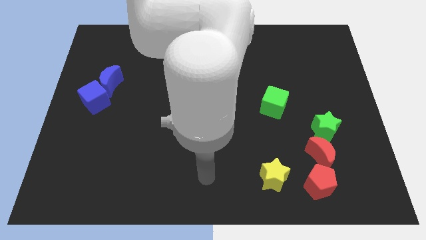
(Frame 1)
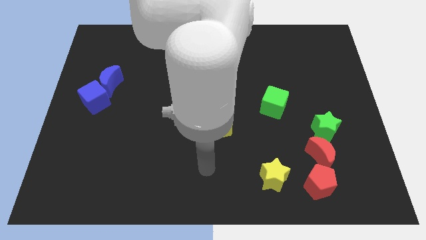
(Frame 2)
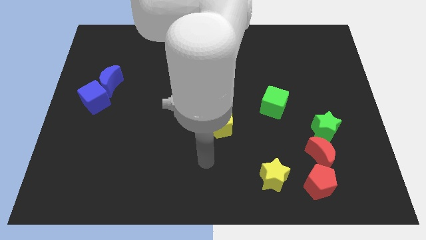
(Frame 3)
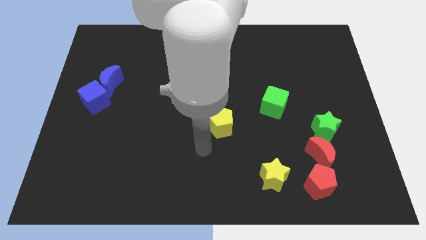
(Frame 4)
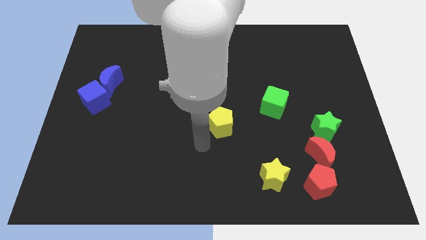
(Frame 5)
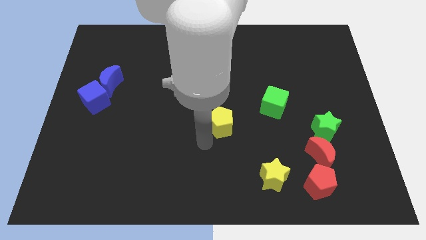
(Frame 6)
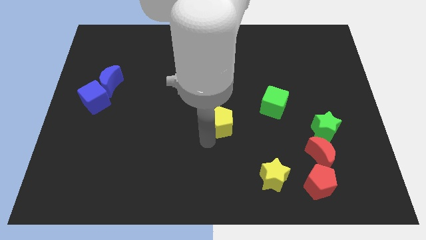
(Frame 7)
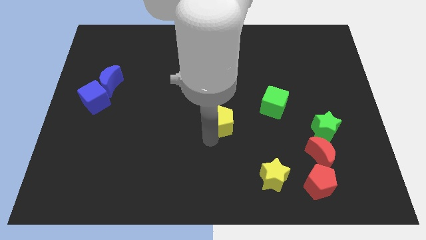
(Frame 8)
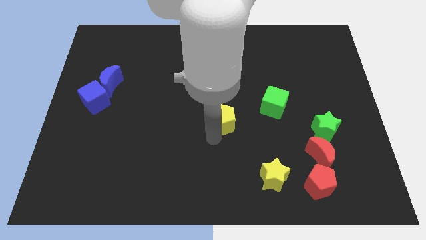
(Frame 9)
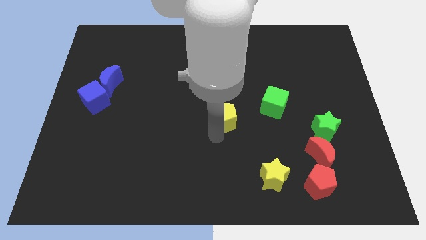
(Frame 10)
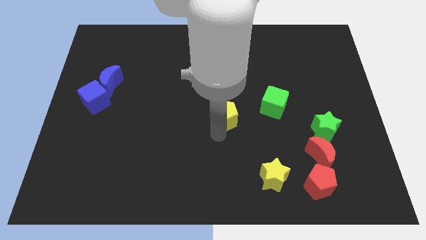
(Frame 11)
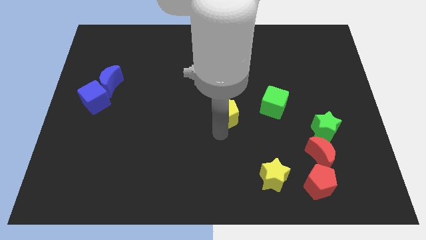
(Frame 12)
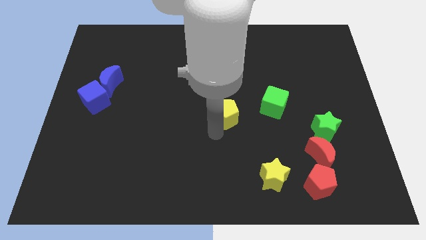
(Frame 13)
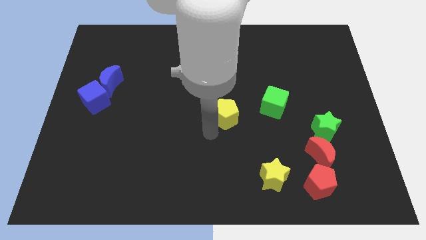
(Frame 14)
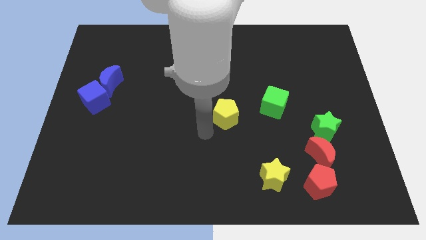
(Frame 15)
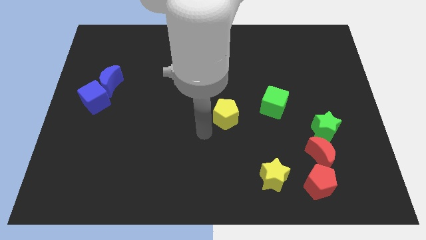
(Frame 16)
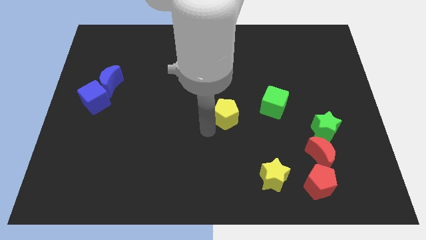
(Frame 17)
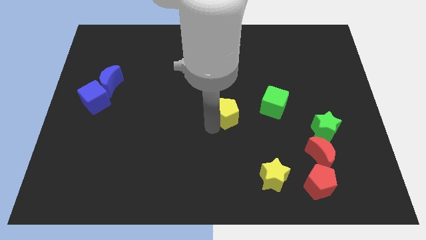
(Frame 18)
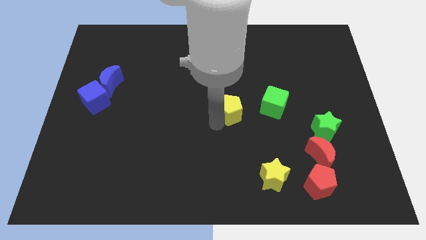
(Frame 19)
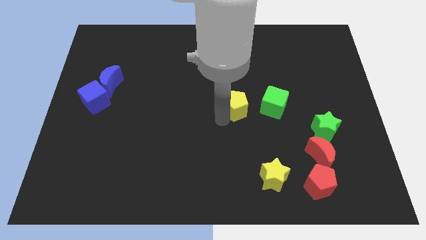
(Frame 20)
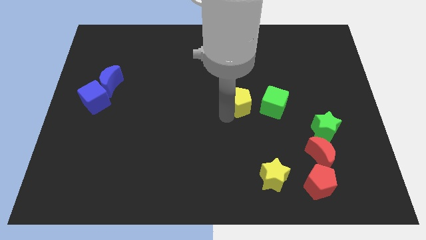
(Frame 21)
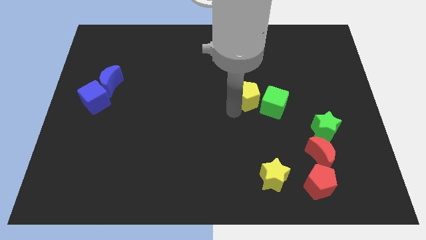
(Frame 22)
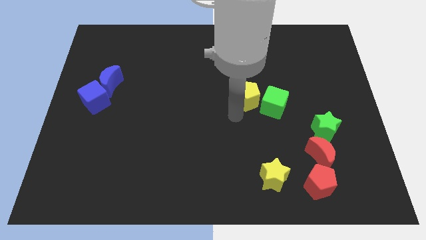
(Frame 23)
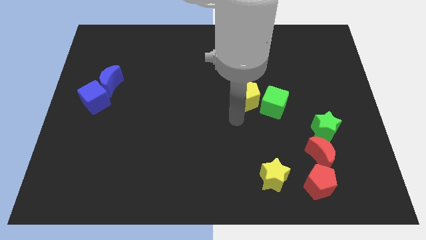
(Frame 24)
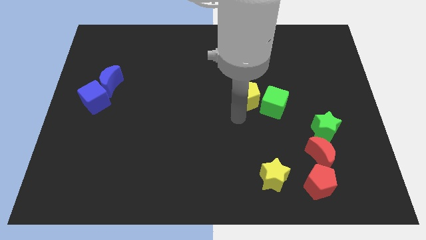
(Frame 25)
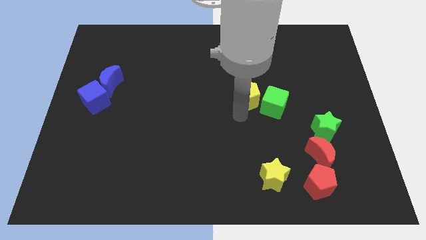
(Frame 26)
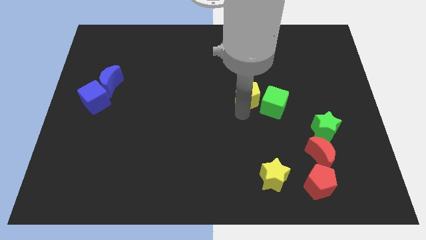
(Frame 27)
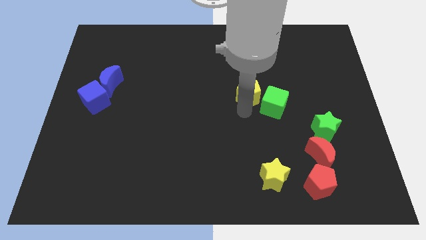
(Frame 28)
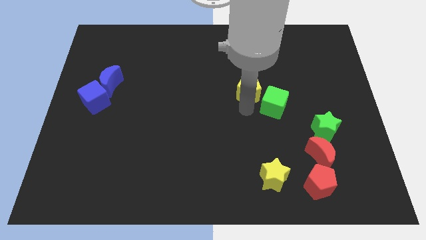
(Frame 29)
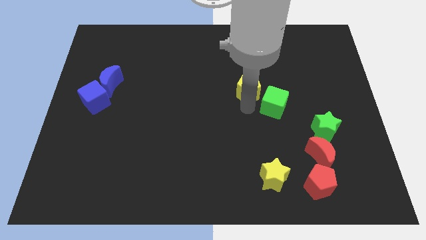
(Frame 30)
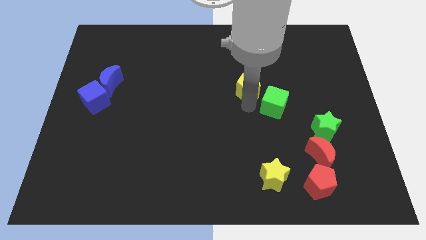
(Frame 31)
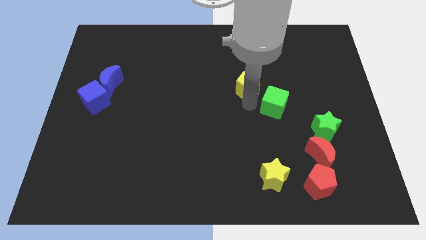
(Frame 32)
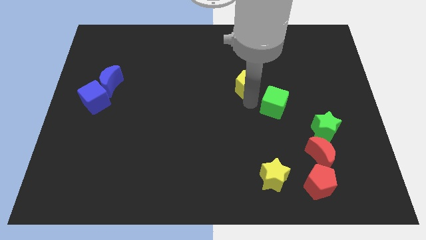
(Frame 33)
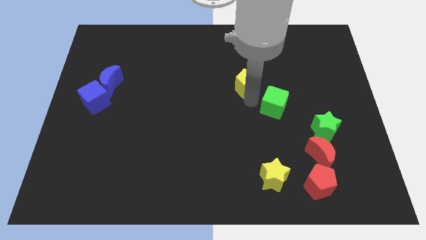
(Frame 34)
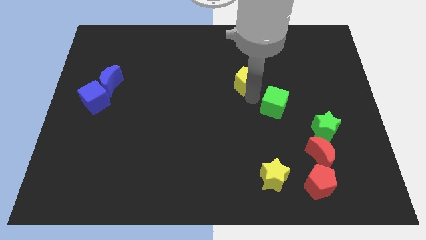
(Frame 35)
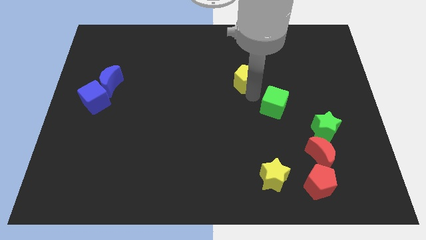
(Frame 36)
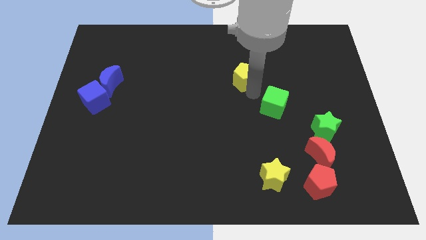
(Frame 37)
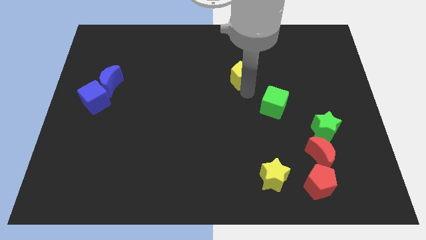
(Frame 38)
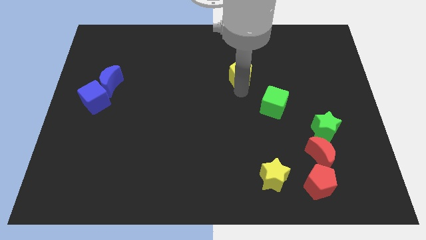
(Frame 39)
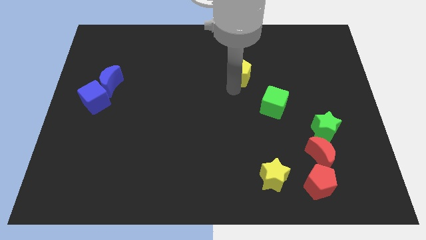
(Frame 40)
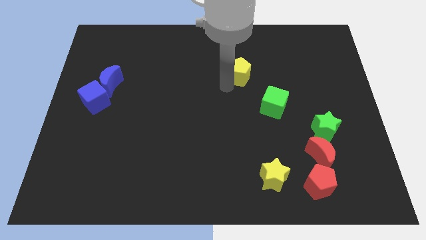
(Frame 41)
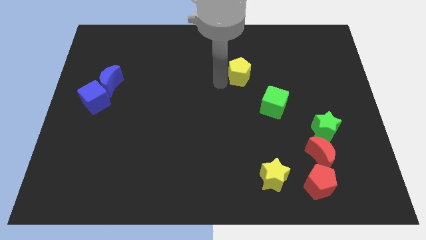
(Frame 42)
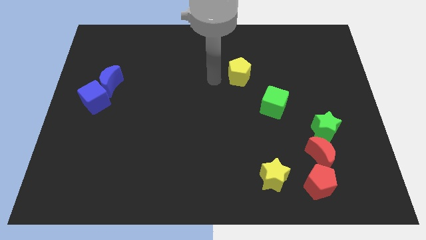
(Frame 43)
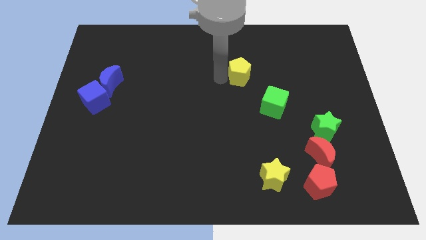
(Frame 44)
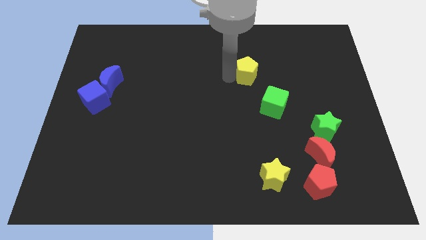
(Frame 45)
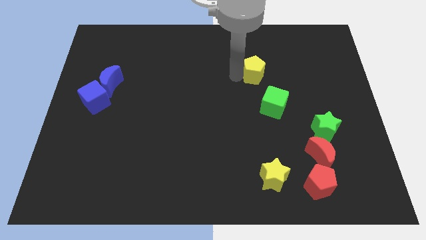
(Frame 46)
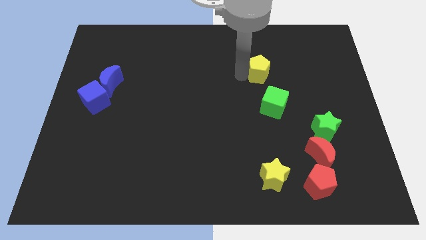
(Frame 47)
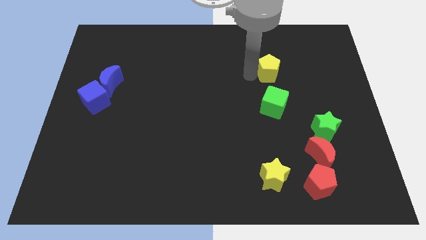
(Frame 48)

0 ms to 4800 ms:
move the yellow pentagon diagonally up and to the right

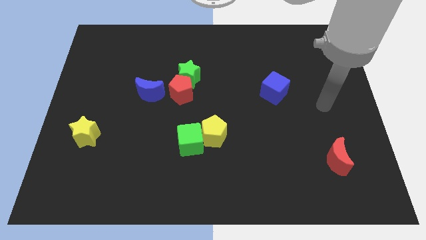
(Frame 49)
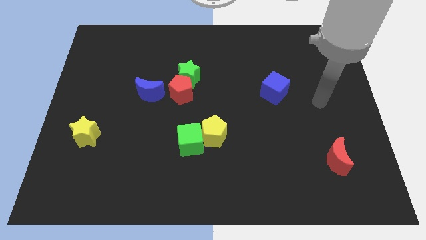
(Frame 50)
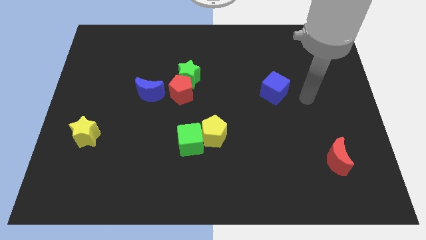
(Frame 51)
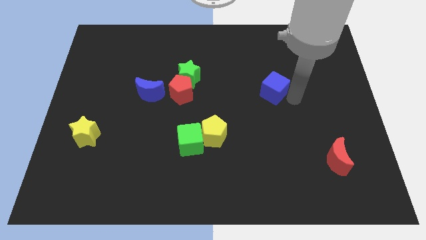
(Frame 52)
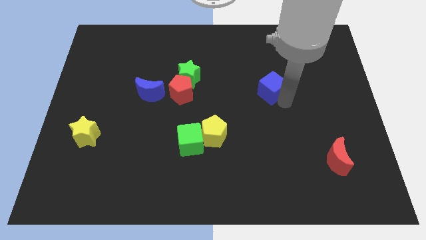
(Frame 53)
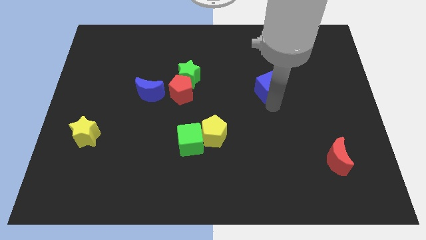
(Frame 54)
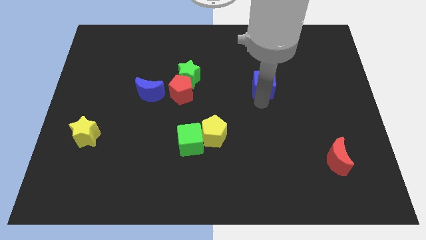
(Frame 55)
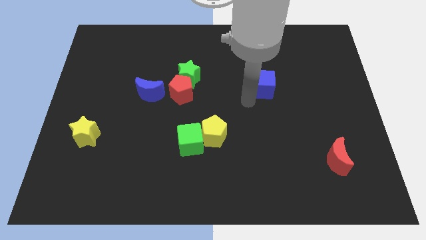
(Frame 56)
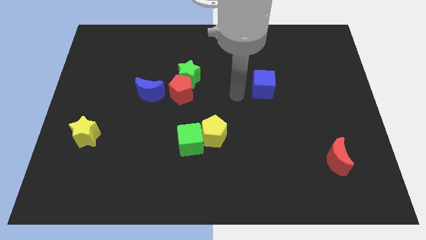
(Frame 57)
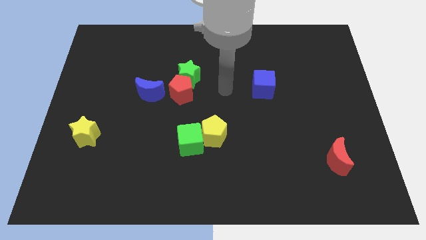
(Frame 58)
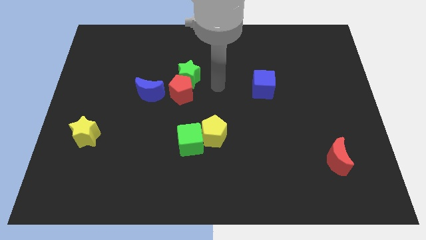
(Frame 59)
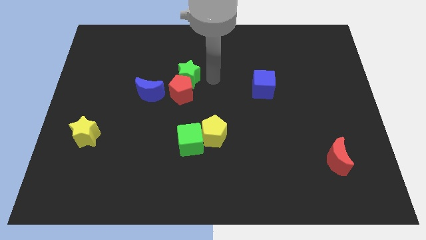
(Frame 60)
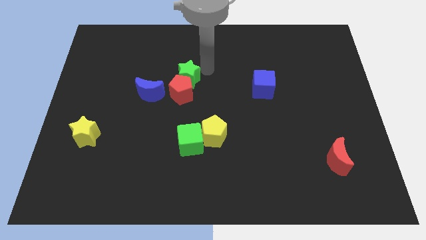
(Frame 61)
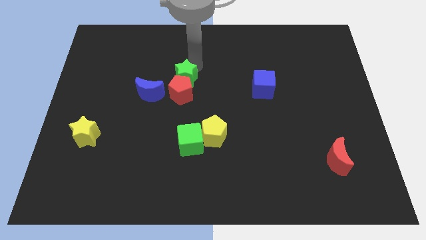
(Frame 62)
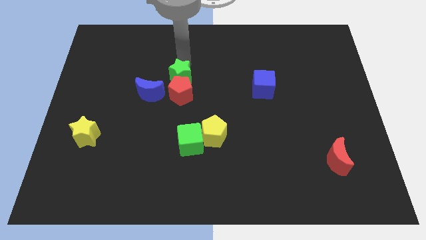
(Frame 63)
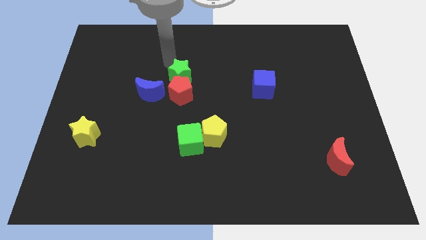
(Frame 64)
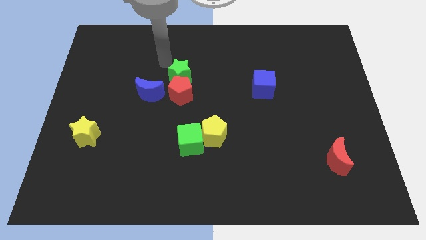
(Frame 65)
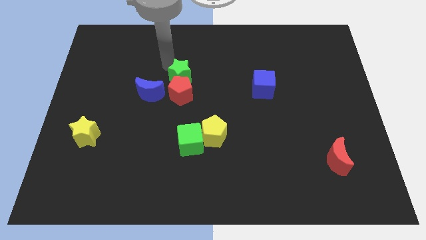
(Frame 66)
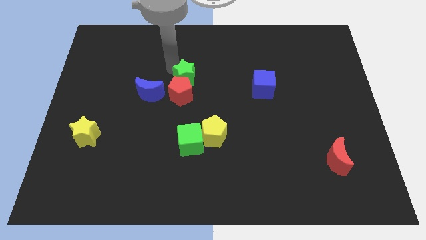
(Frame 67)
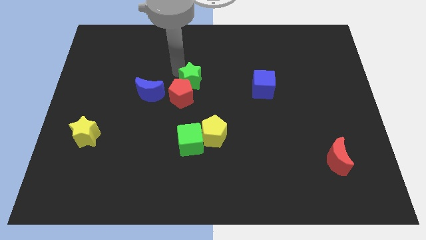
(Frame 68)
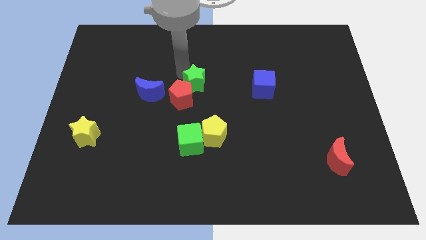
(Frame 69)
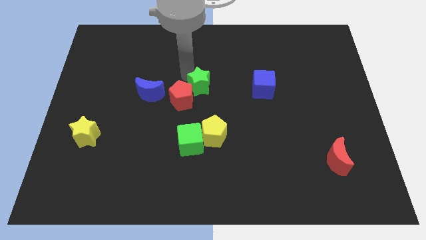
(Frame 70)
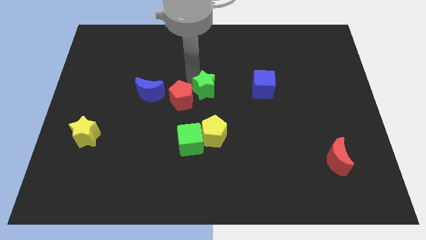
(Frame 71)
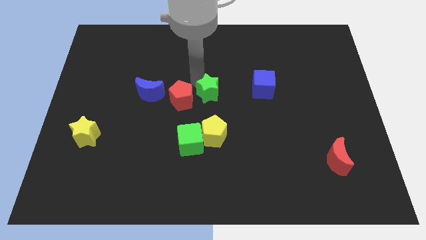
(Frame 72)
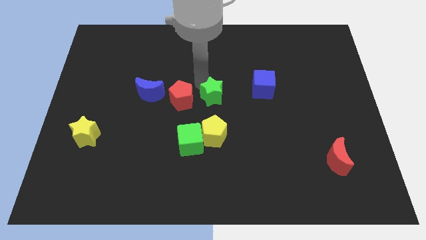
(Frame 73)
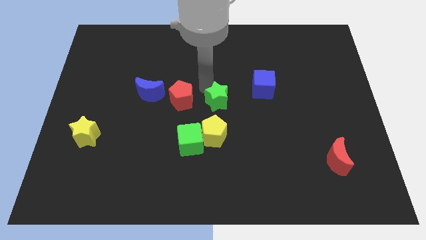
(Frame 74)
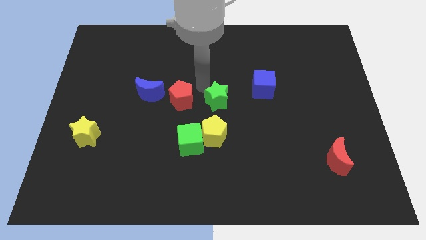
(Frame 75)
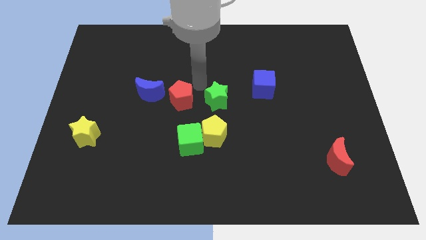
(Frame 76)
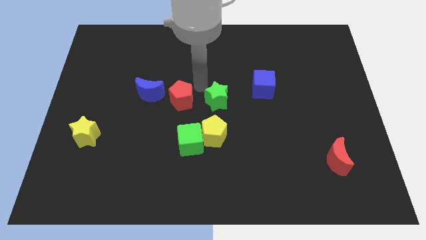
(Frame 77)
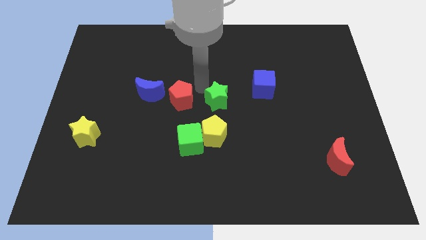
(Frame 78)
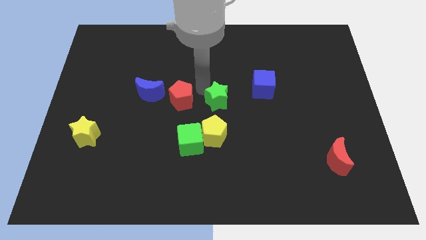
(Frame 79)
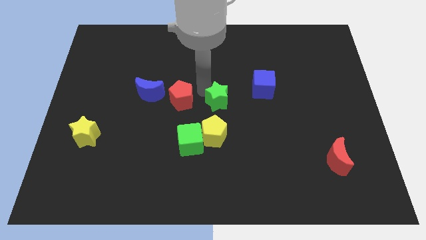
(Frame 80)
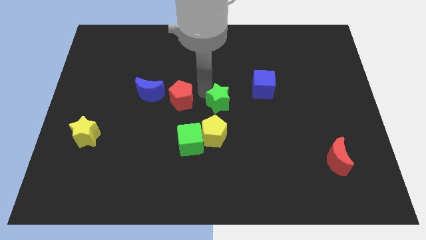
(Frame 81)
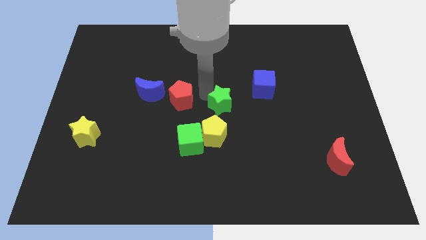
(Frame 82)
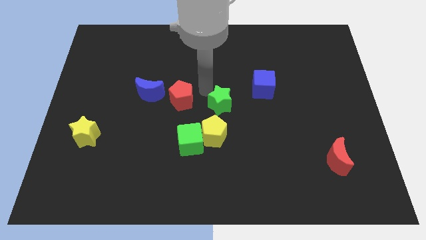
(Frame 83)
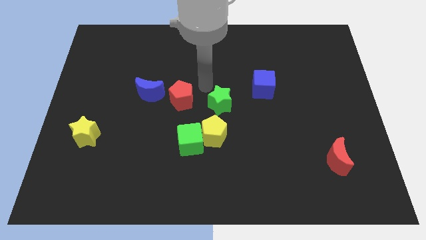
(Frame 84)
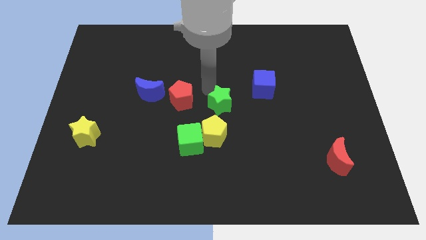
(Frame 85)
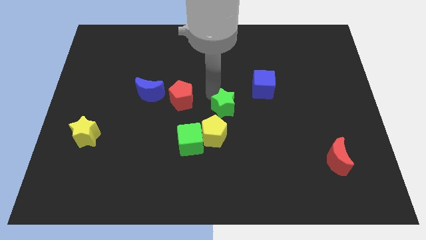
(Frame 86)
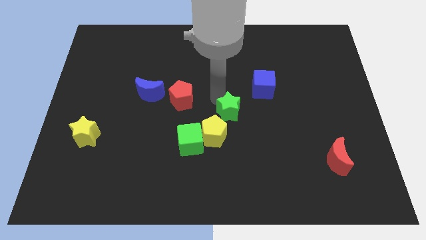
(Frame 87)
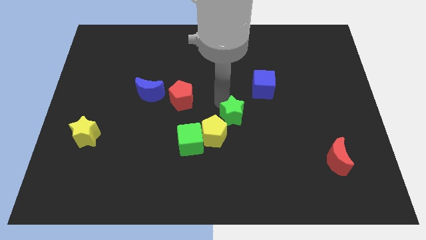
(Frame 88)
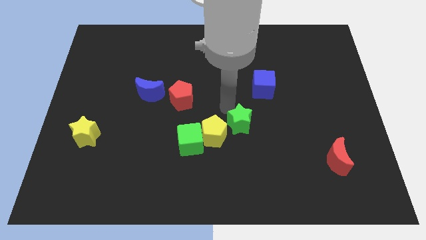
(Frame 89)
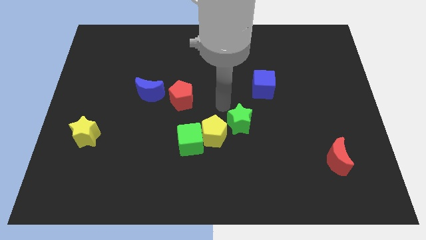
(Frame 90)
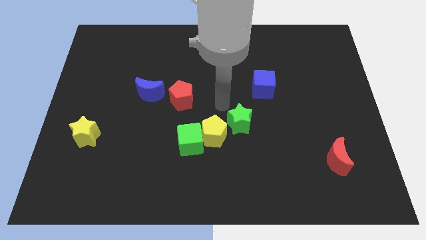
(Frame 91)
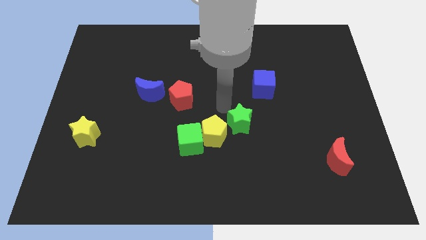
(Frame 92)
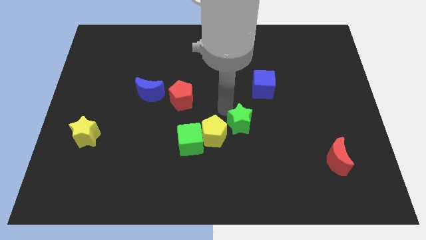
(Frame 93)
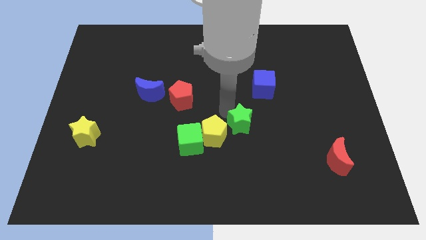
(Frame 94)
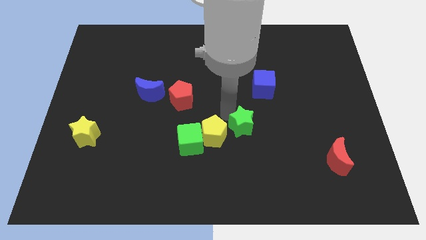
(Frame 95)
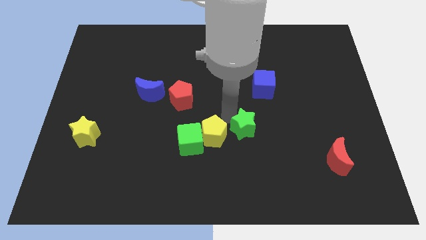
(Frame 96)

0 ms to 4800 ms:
push the green star down and to the right diagonally
